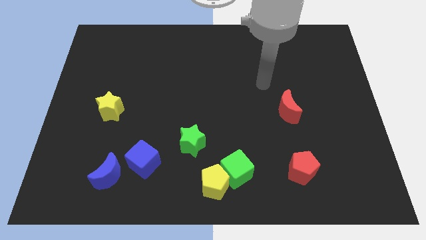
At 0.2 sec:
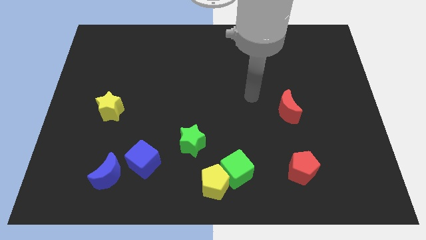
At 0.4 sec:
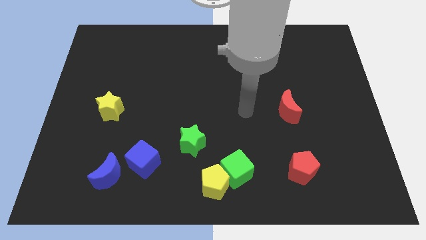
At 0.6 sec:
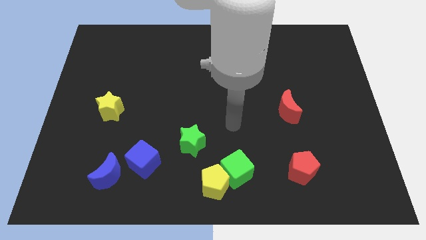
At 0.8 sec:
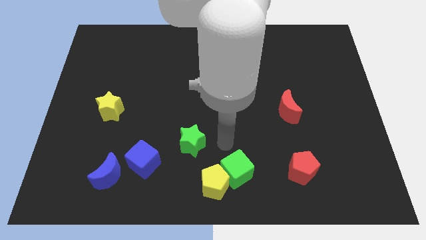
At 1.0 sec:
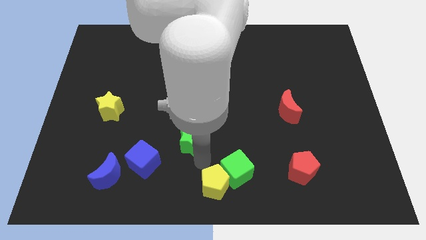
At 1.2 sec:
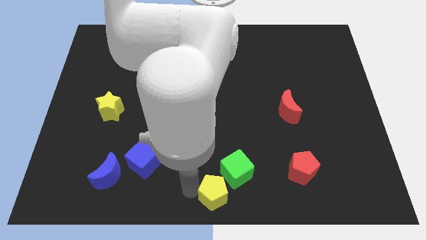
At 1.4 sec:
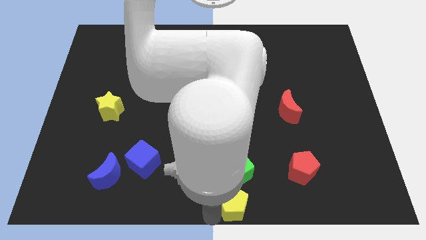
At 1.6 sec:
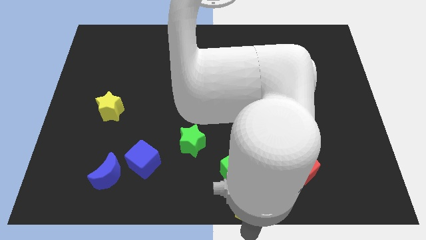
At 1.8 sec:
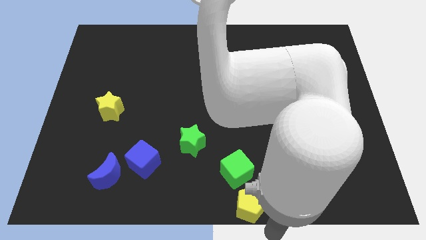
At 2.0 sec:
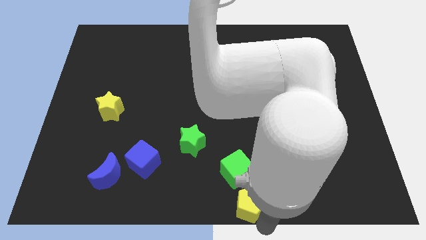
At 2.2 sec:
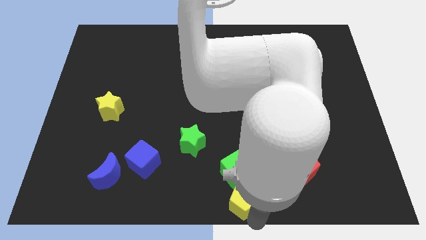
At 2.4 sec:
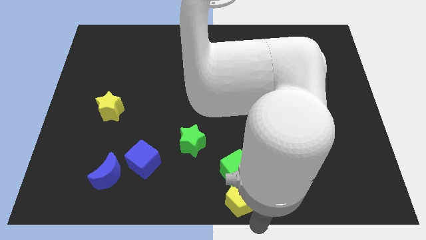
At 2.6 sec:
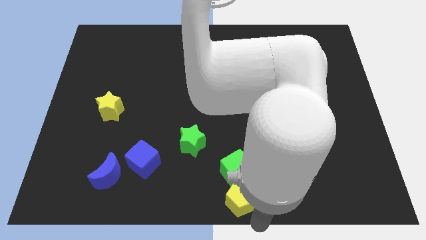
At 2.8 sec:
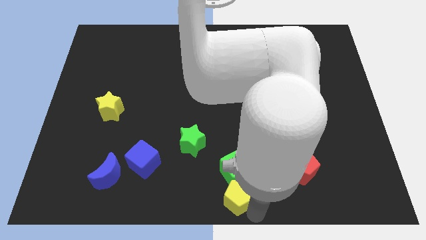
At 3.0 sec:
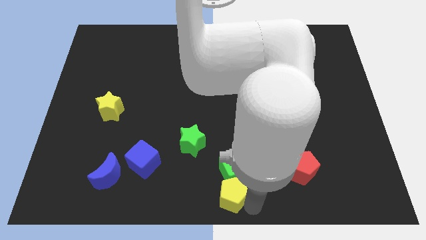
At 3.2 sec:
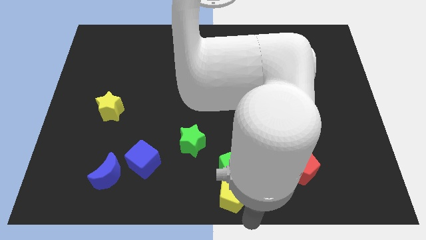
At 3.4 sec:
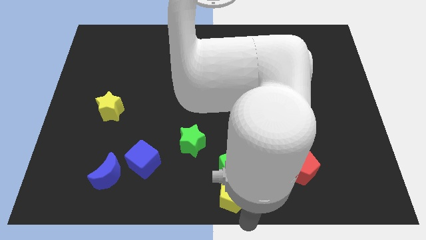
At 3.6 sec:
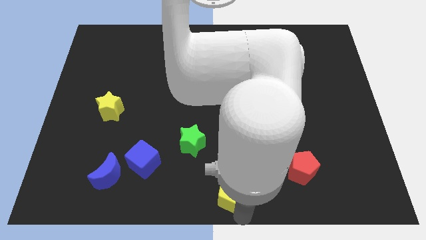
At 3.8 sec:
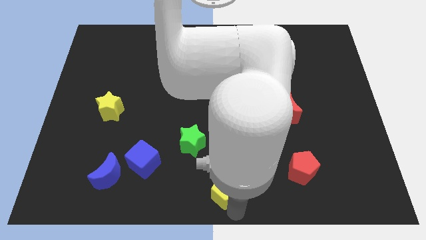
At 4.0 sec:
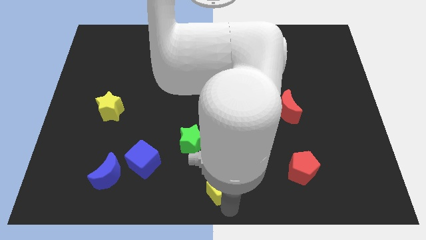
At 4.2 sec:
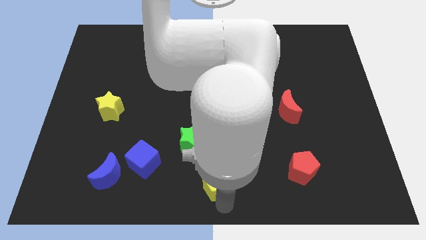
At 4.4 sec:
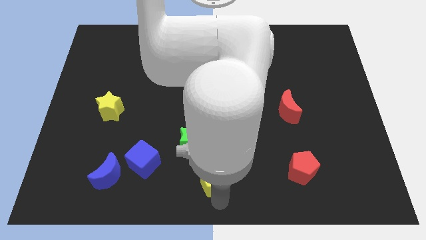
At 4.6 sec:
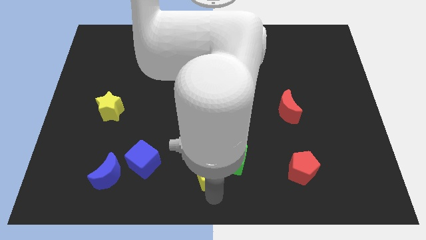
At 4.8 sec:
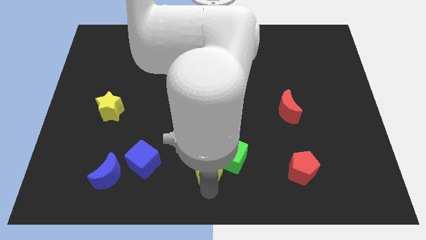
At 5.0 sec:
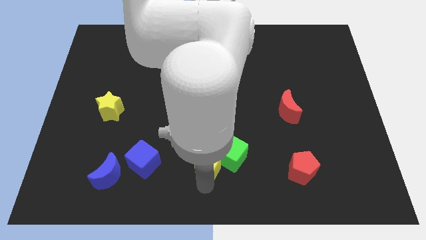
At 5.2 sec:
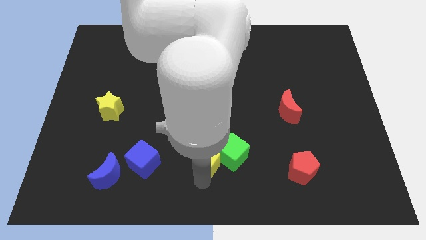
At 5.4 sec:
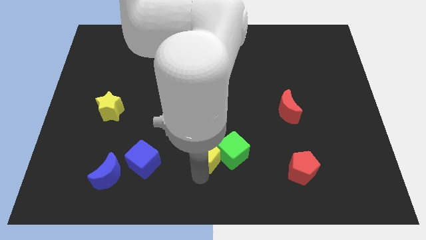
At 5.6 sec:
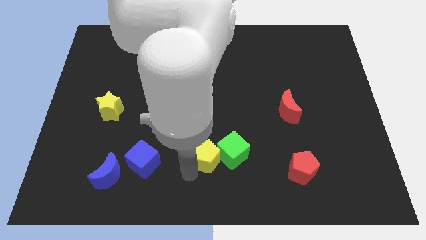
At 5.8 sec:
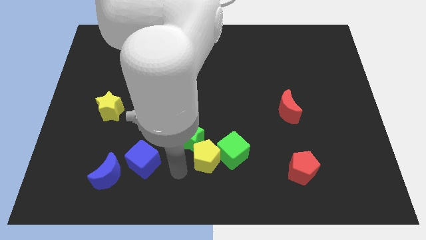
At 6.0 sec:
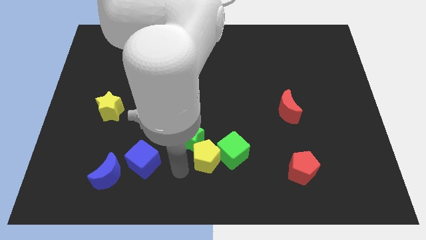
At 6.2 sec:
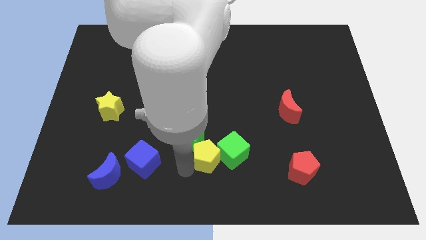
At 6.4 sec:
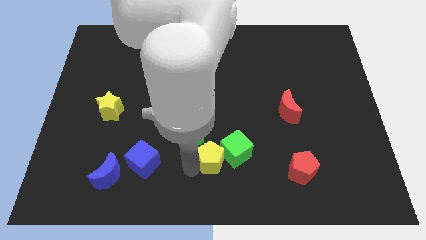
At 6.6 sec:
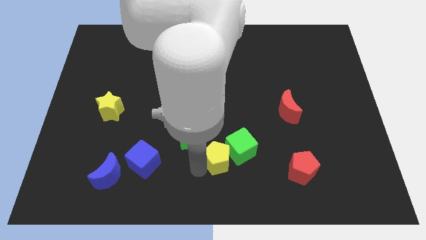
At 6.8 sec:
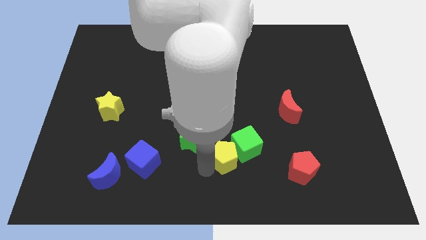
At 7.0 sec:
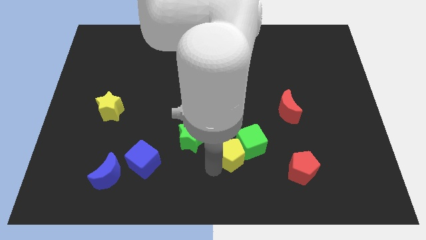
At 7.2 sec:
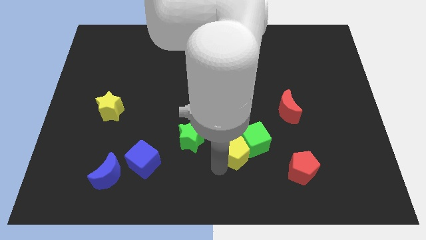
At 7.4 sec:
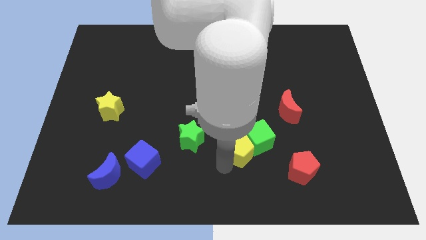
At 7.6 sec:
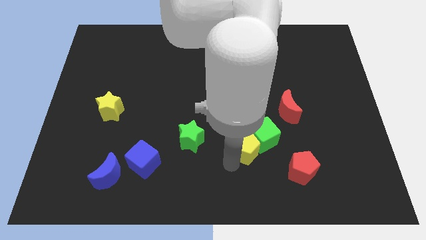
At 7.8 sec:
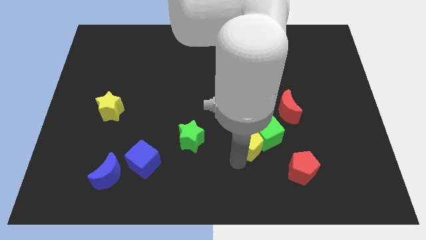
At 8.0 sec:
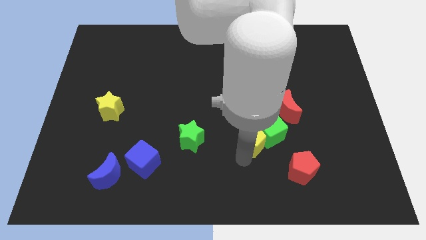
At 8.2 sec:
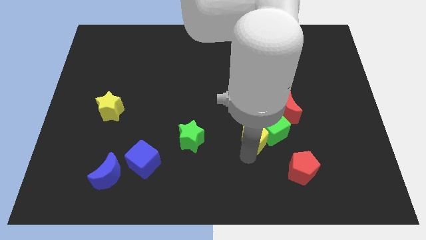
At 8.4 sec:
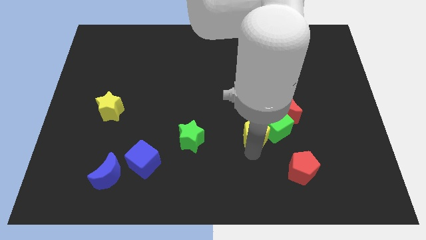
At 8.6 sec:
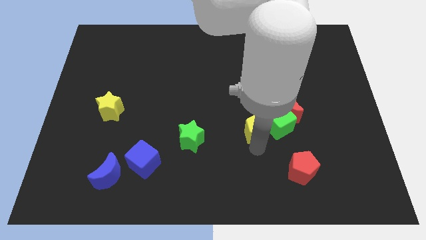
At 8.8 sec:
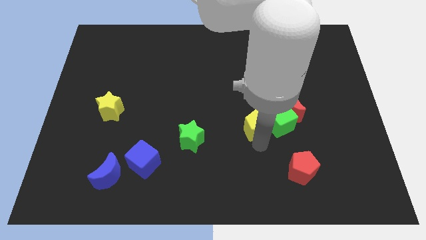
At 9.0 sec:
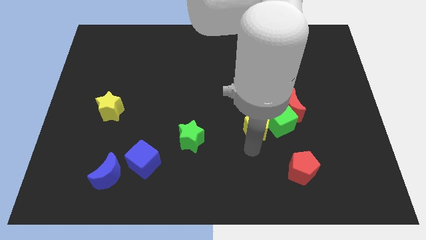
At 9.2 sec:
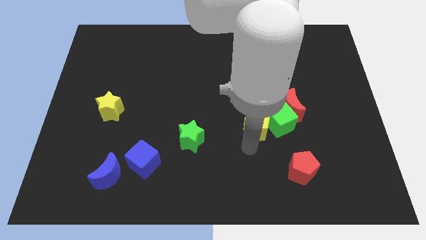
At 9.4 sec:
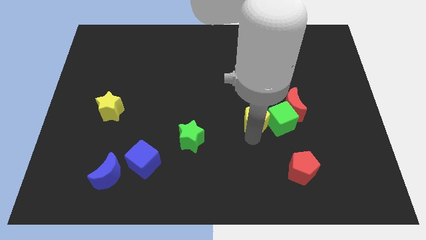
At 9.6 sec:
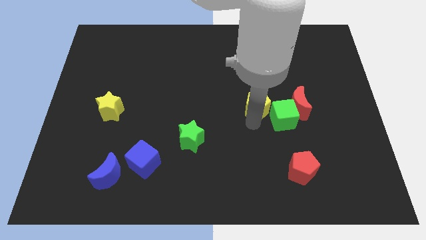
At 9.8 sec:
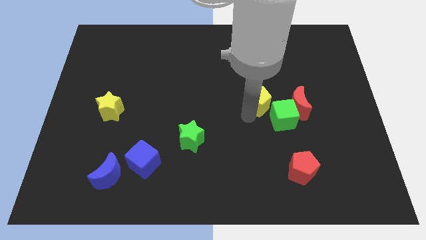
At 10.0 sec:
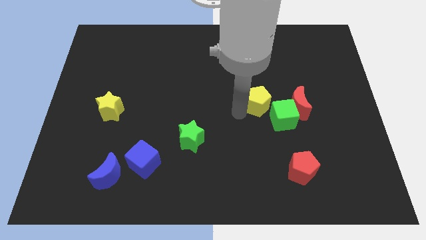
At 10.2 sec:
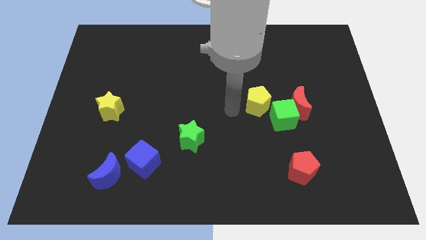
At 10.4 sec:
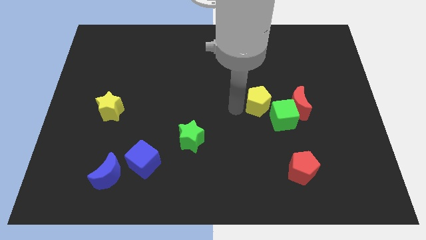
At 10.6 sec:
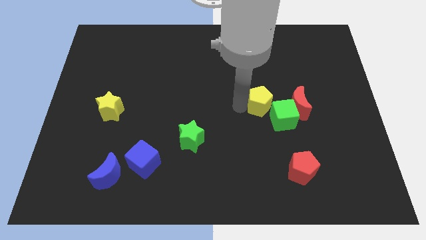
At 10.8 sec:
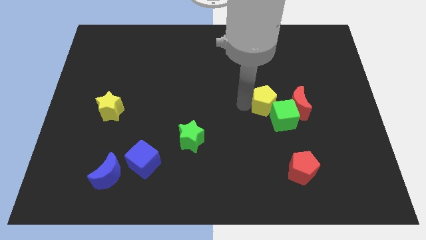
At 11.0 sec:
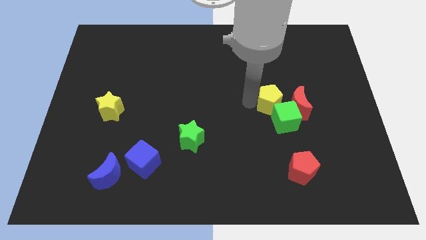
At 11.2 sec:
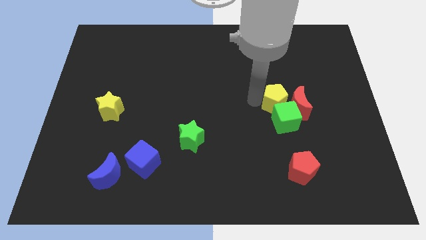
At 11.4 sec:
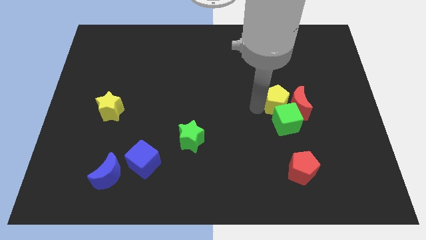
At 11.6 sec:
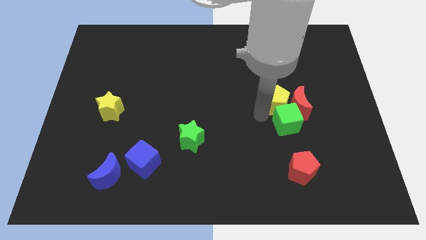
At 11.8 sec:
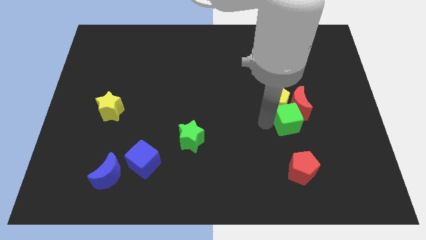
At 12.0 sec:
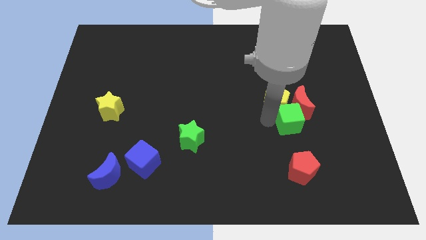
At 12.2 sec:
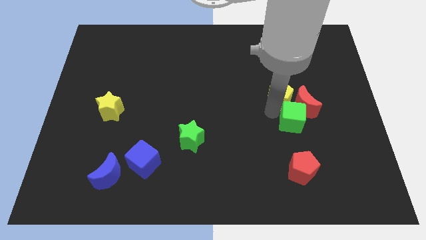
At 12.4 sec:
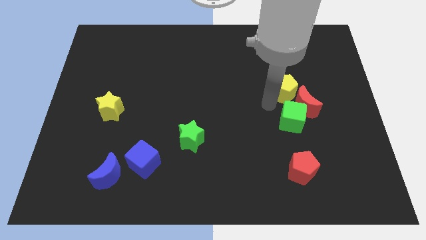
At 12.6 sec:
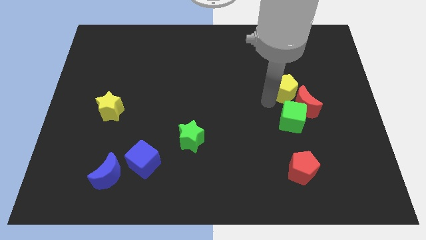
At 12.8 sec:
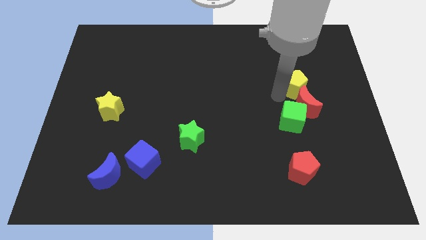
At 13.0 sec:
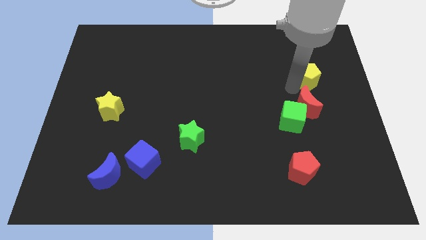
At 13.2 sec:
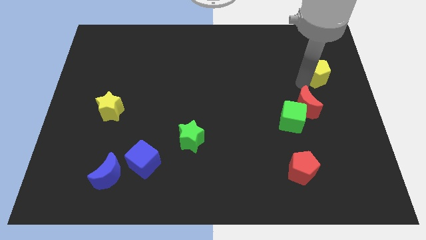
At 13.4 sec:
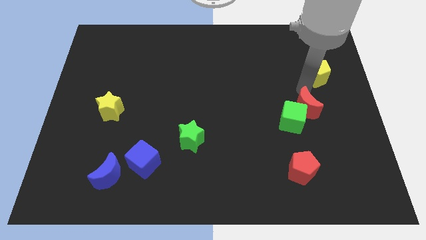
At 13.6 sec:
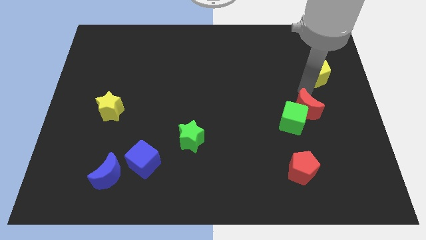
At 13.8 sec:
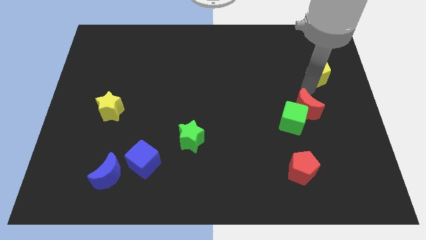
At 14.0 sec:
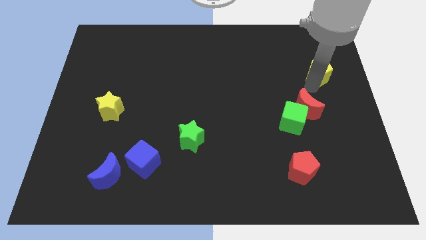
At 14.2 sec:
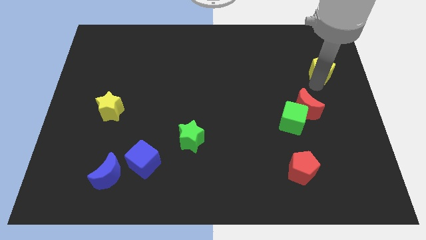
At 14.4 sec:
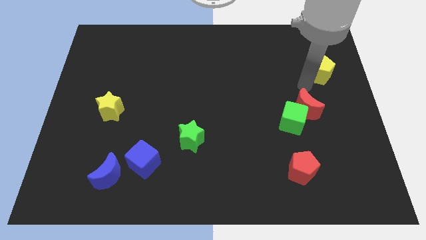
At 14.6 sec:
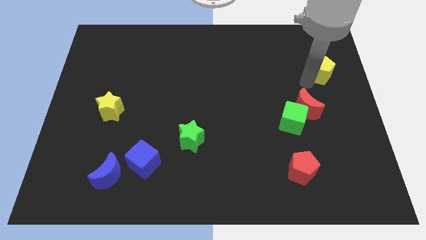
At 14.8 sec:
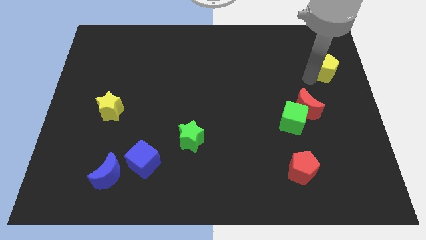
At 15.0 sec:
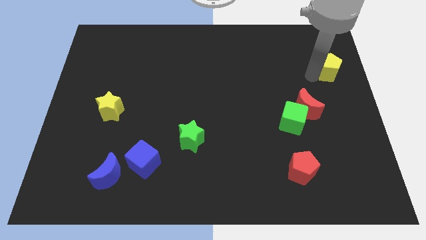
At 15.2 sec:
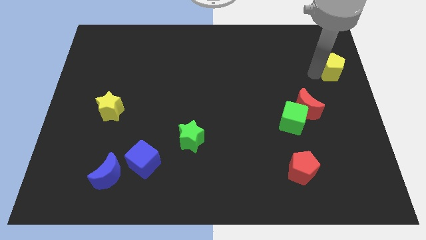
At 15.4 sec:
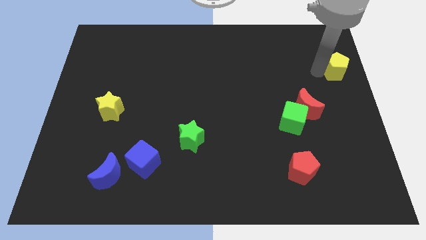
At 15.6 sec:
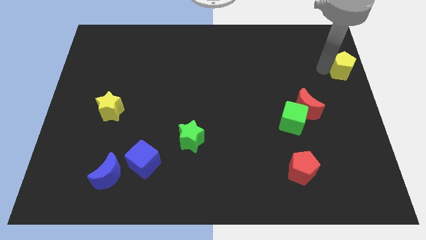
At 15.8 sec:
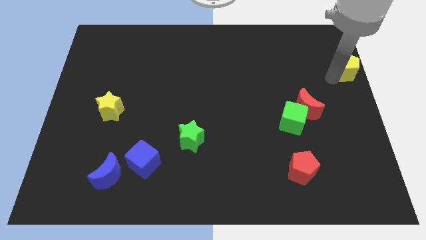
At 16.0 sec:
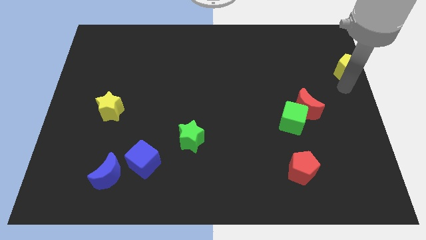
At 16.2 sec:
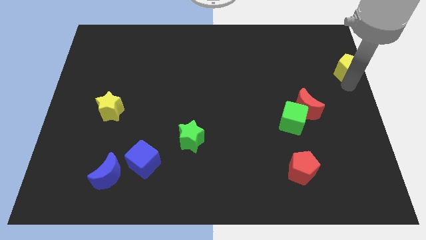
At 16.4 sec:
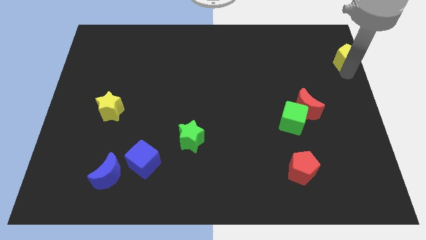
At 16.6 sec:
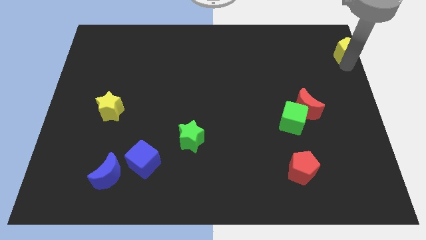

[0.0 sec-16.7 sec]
push the yellow pentagon to the top right corner
